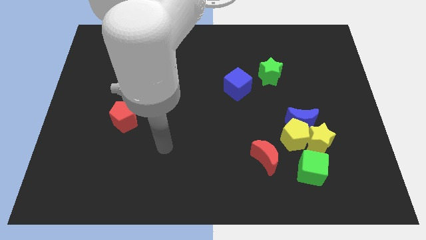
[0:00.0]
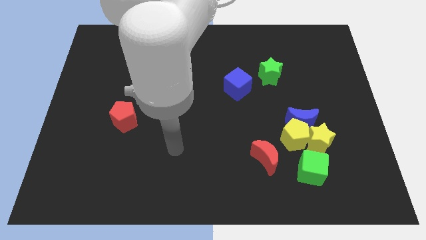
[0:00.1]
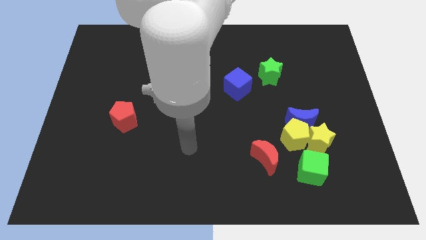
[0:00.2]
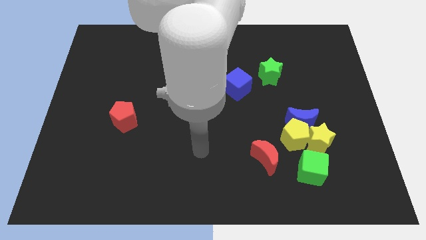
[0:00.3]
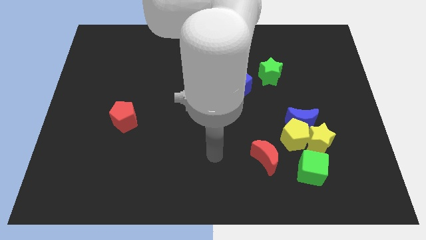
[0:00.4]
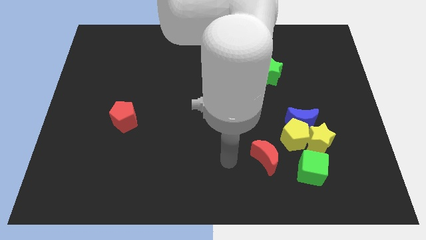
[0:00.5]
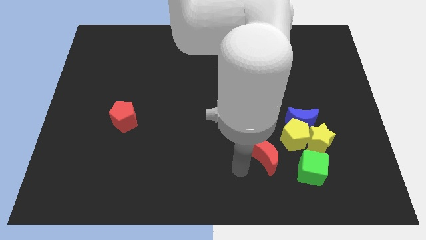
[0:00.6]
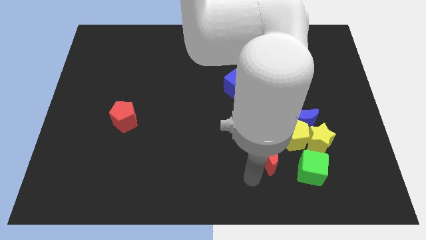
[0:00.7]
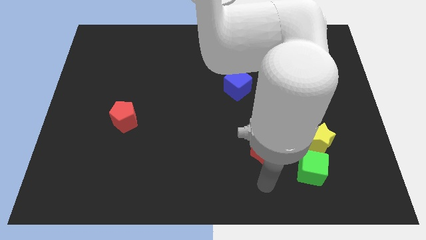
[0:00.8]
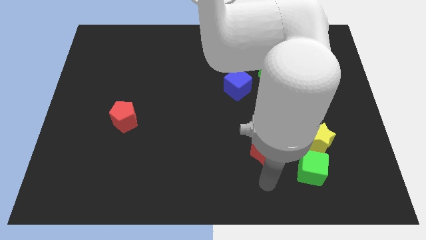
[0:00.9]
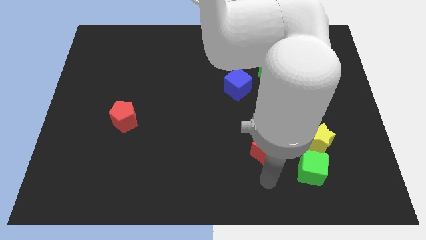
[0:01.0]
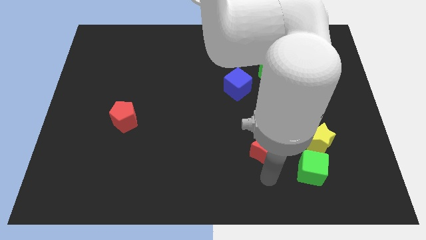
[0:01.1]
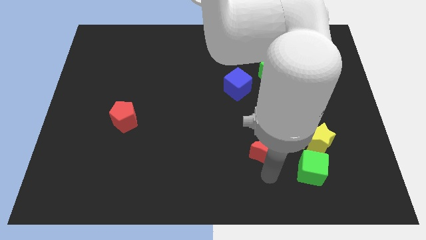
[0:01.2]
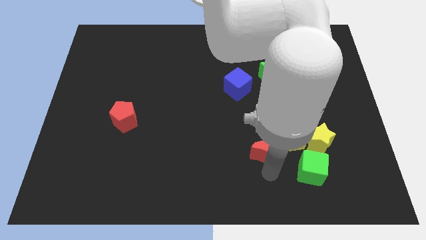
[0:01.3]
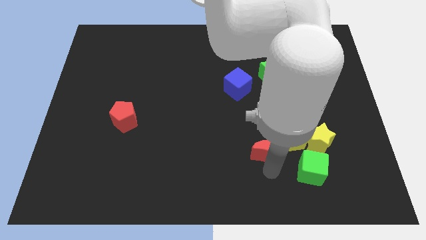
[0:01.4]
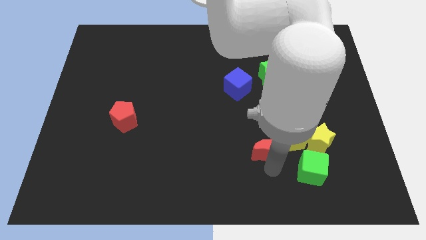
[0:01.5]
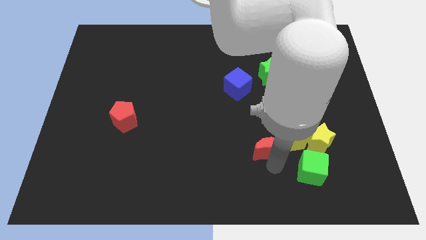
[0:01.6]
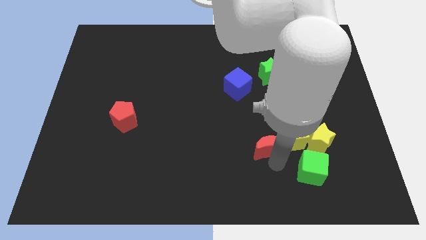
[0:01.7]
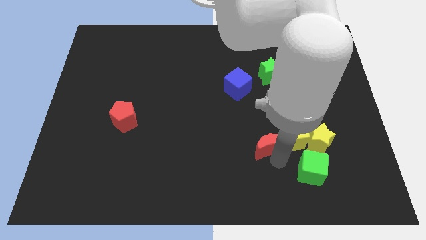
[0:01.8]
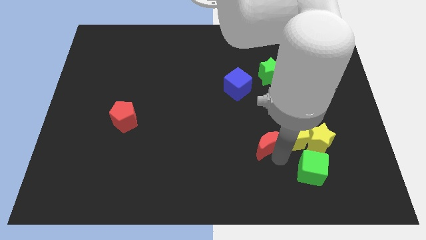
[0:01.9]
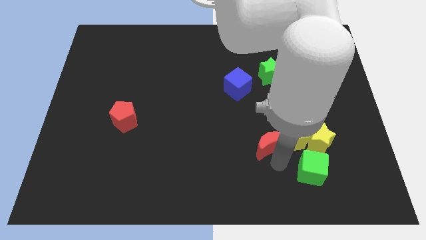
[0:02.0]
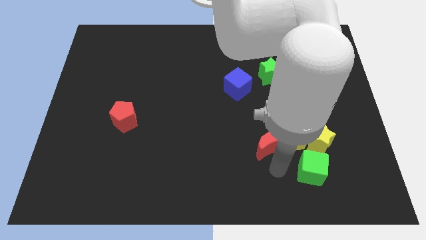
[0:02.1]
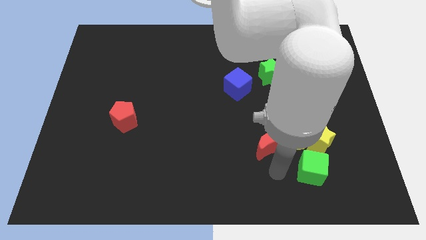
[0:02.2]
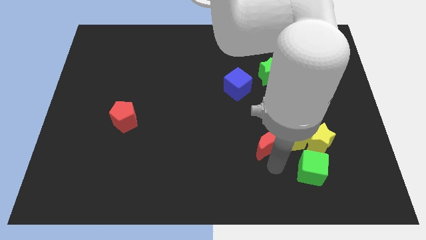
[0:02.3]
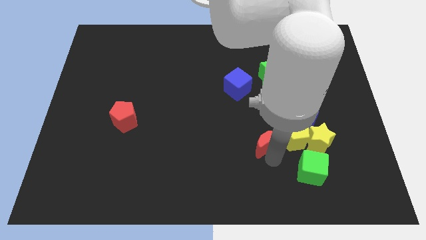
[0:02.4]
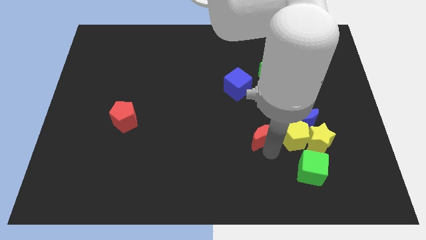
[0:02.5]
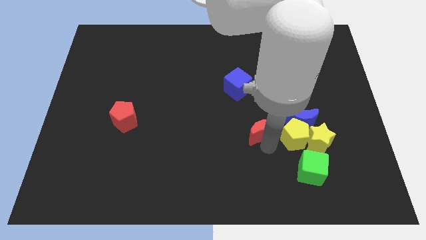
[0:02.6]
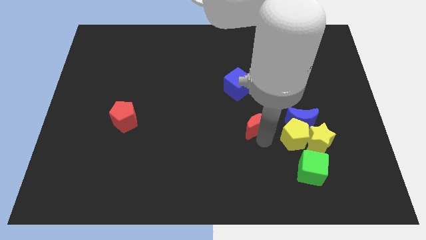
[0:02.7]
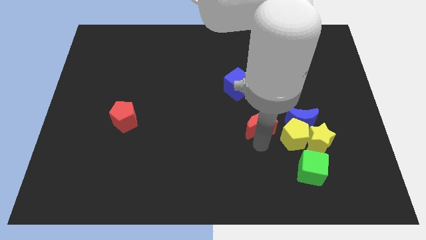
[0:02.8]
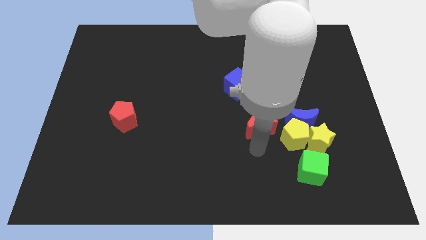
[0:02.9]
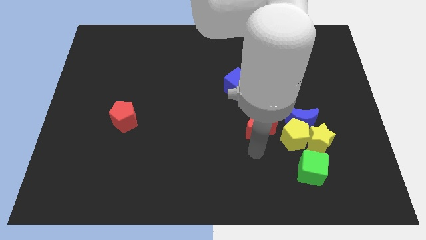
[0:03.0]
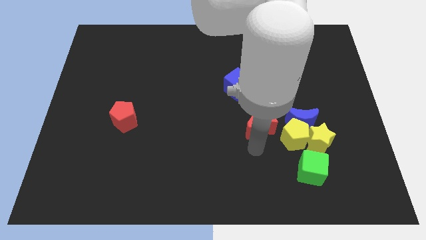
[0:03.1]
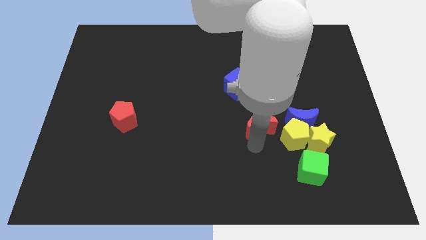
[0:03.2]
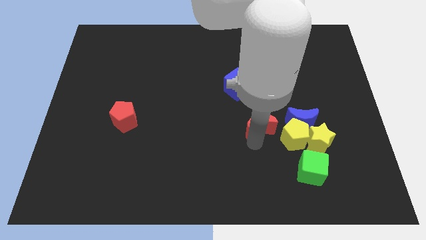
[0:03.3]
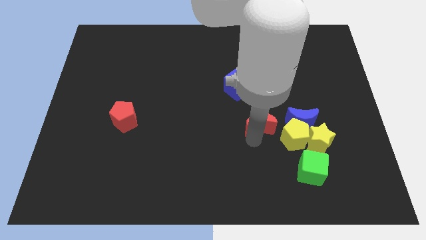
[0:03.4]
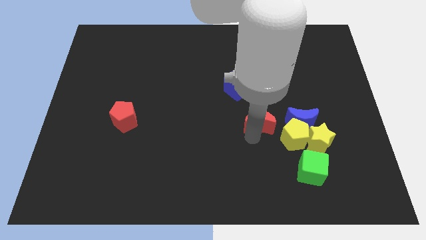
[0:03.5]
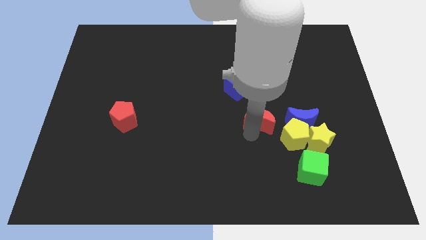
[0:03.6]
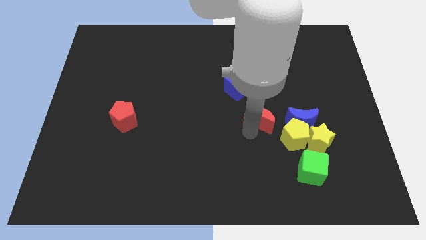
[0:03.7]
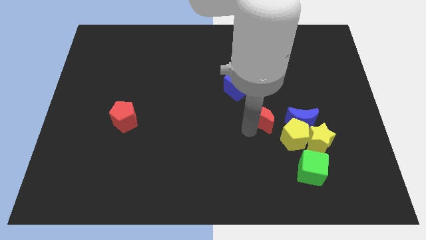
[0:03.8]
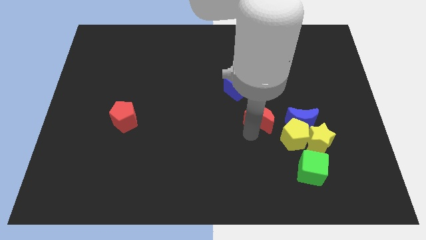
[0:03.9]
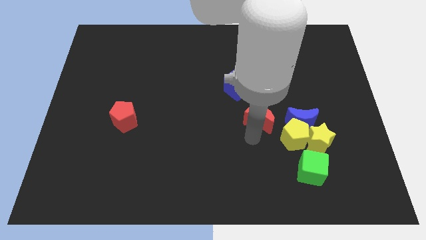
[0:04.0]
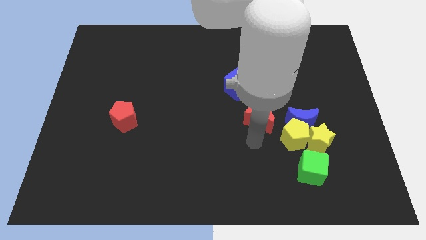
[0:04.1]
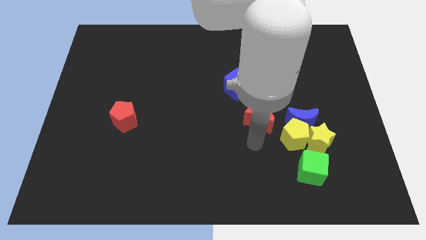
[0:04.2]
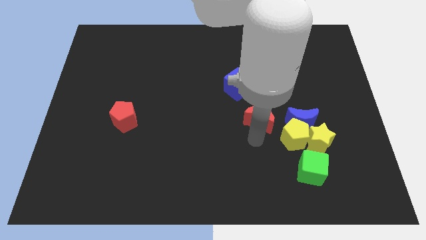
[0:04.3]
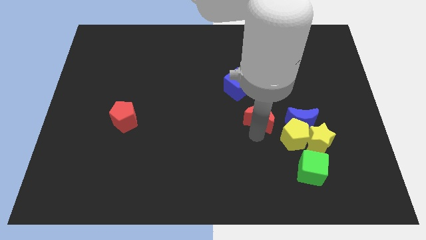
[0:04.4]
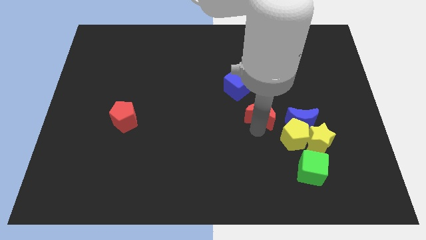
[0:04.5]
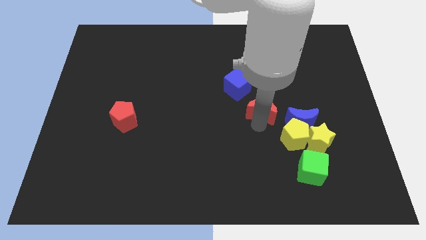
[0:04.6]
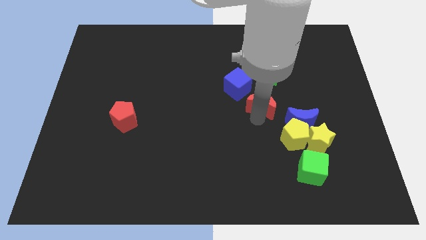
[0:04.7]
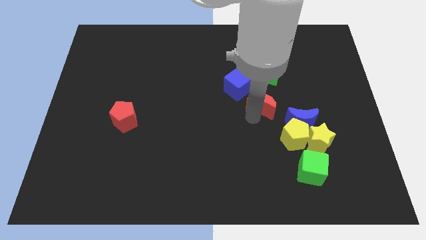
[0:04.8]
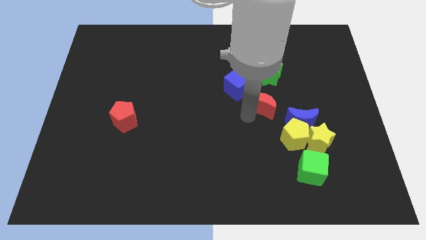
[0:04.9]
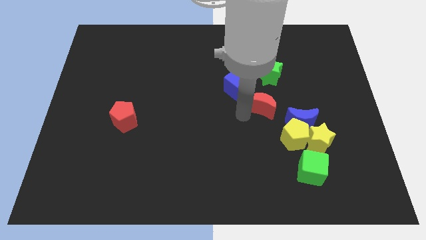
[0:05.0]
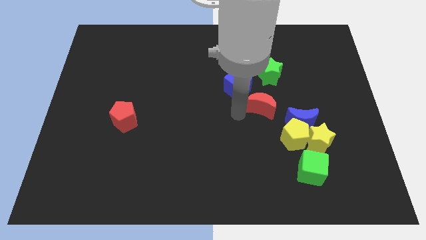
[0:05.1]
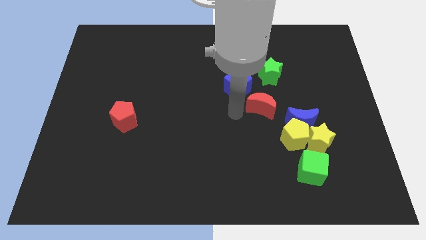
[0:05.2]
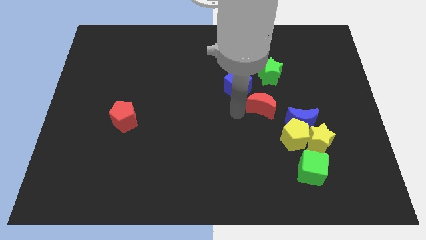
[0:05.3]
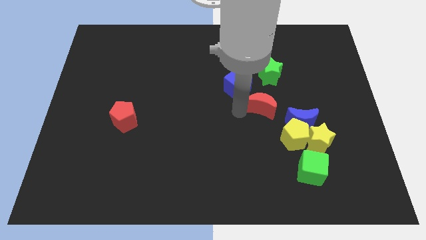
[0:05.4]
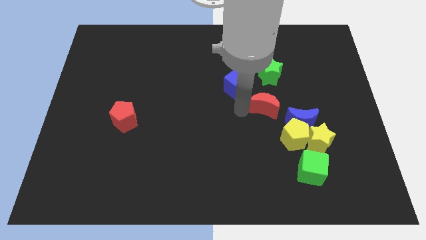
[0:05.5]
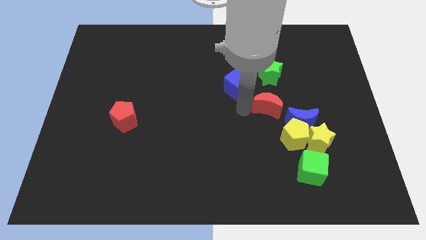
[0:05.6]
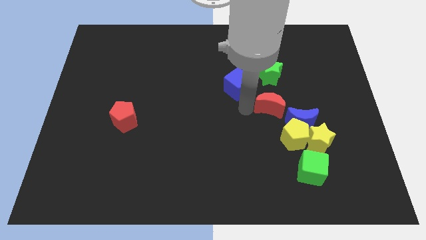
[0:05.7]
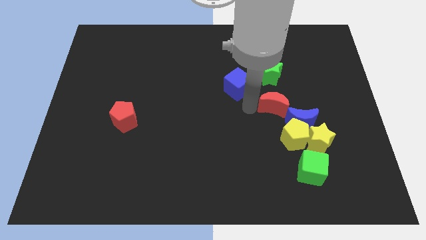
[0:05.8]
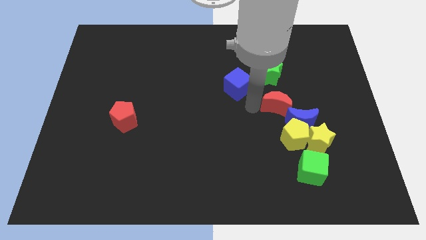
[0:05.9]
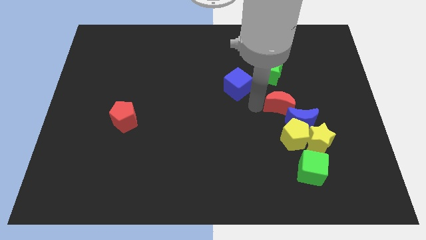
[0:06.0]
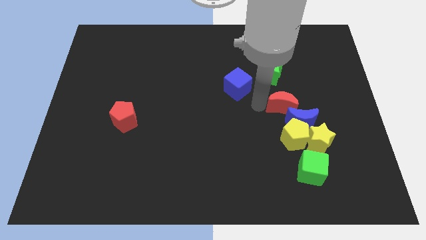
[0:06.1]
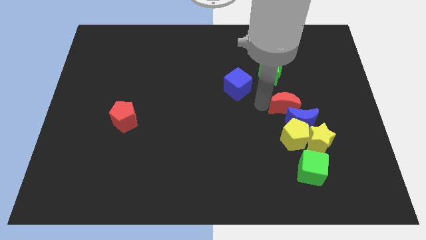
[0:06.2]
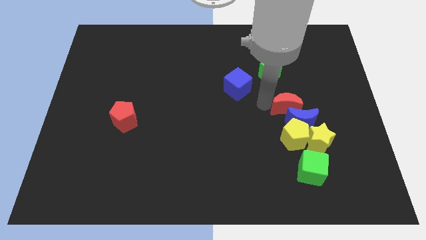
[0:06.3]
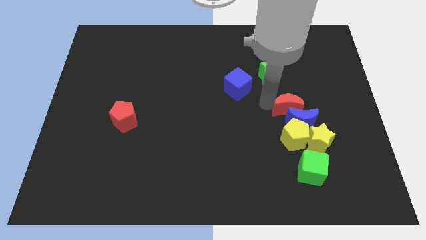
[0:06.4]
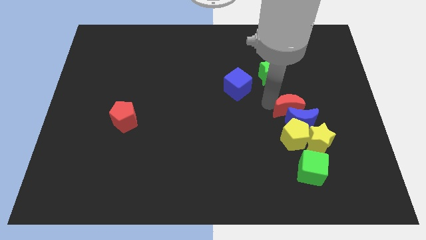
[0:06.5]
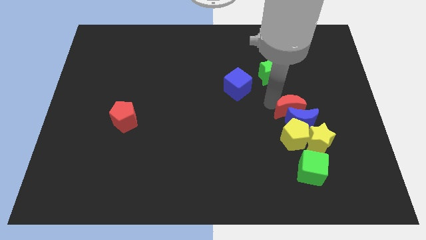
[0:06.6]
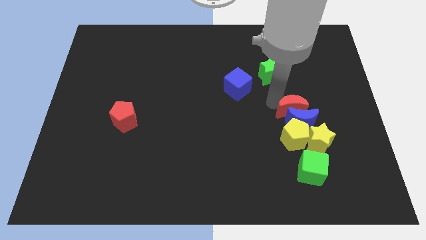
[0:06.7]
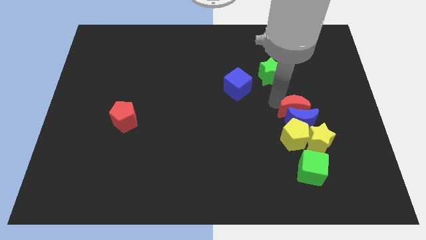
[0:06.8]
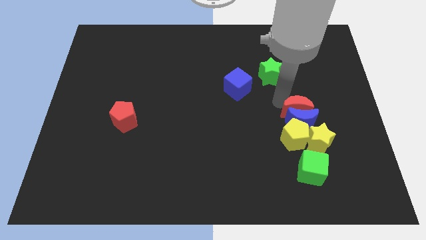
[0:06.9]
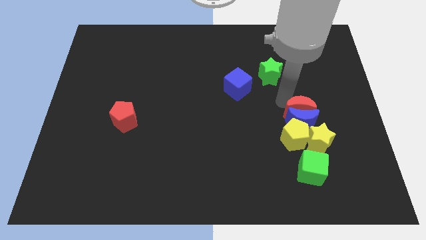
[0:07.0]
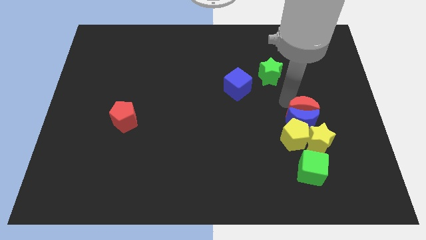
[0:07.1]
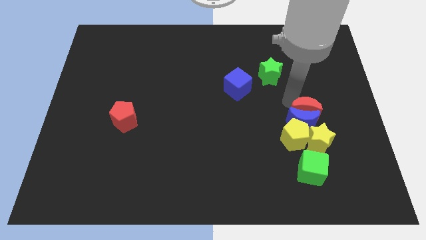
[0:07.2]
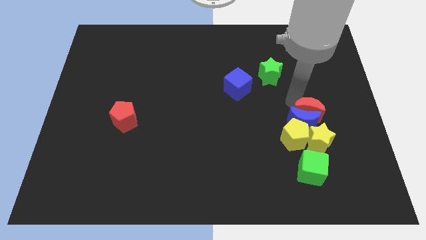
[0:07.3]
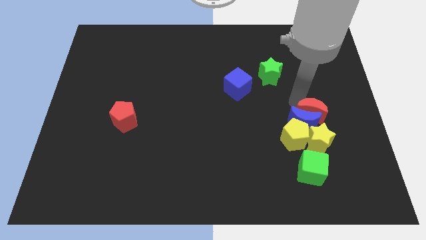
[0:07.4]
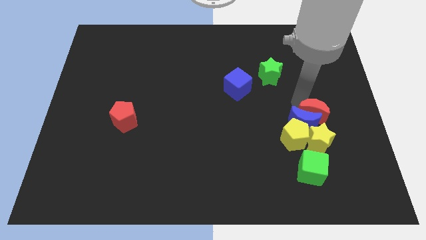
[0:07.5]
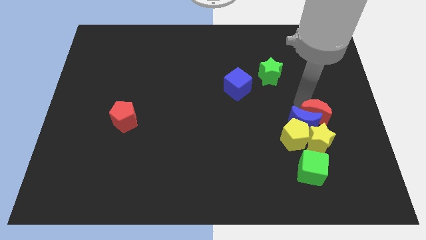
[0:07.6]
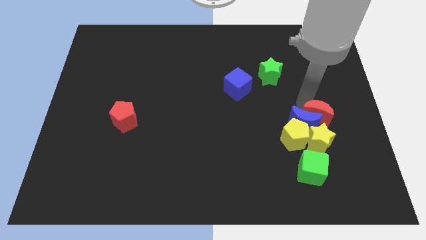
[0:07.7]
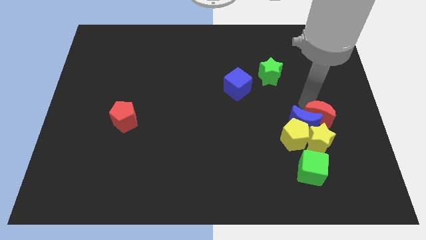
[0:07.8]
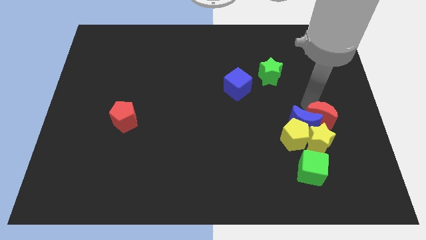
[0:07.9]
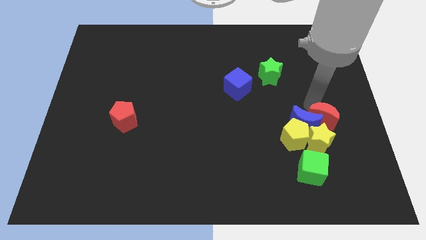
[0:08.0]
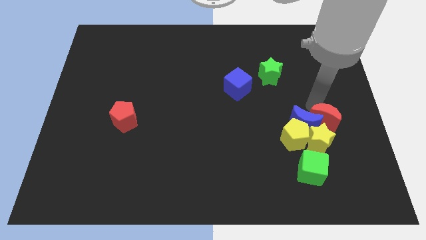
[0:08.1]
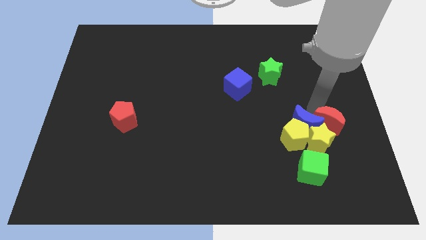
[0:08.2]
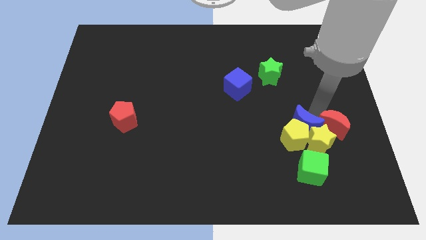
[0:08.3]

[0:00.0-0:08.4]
push the red moon to the center right
